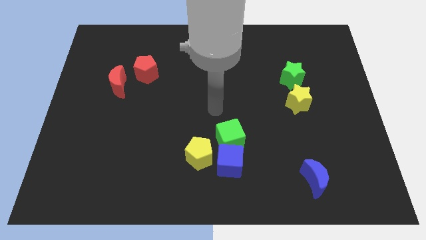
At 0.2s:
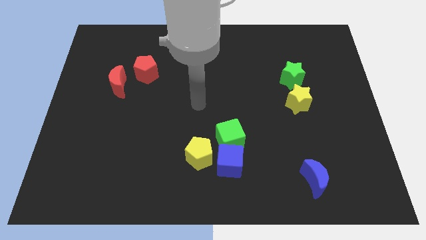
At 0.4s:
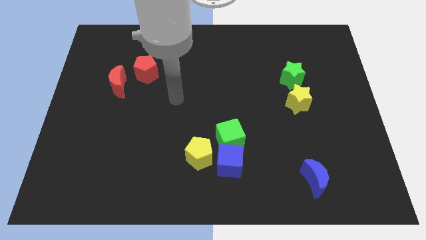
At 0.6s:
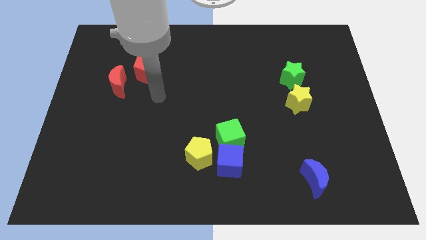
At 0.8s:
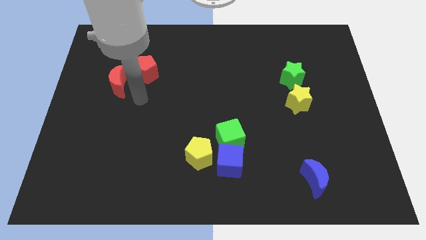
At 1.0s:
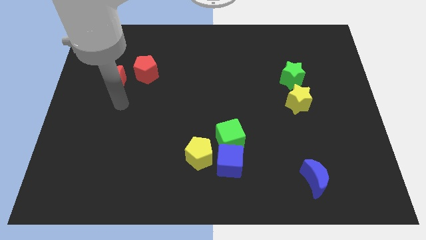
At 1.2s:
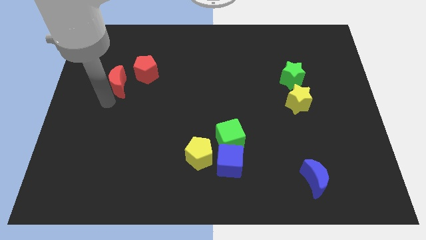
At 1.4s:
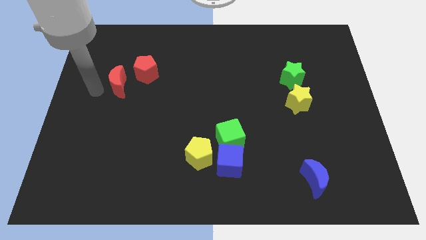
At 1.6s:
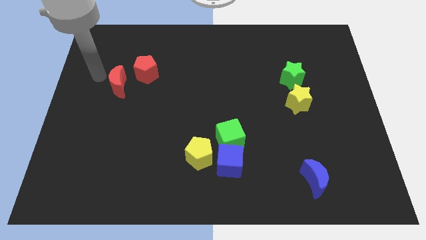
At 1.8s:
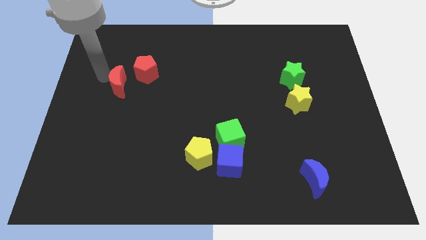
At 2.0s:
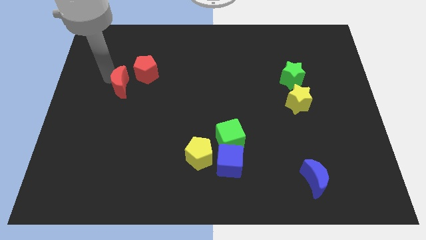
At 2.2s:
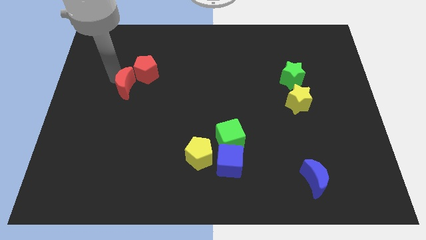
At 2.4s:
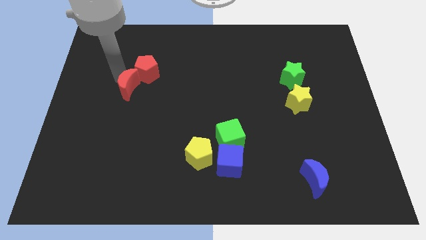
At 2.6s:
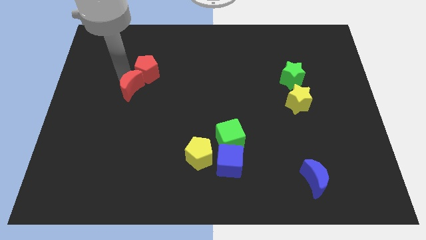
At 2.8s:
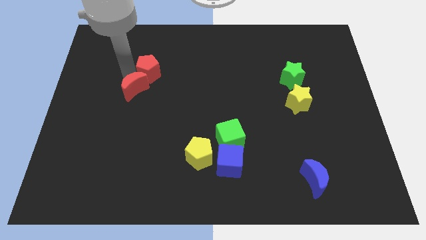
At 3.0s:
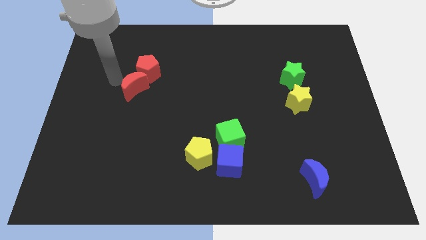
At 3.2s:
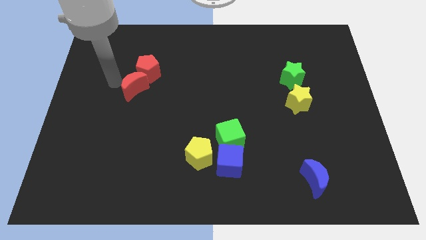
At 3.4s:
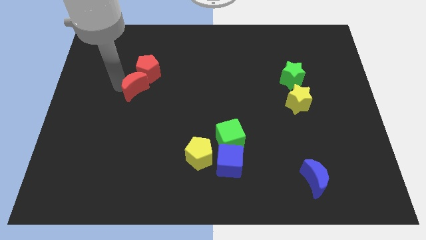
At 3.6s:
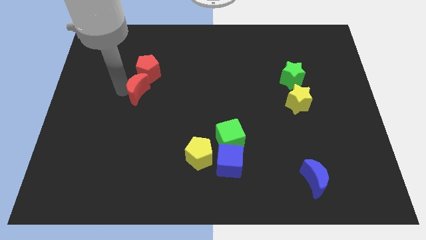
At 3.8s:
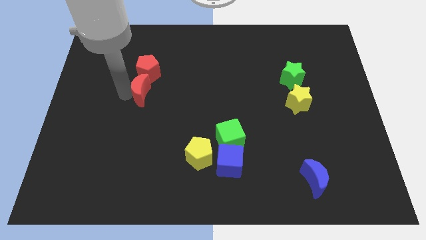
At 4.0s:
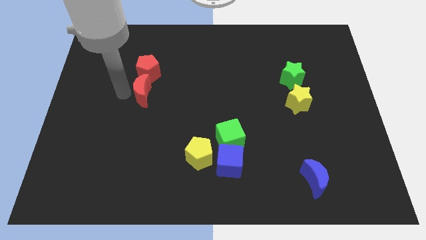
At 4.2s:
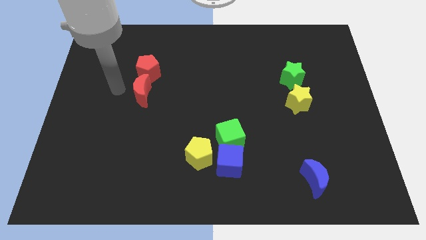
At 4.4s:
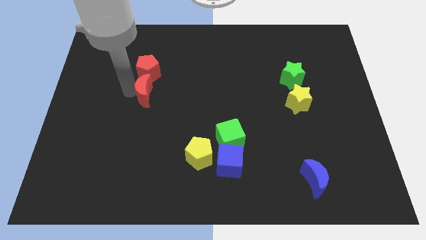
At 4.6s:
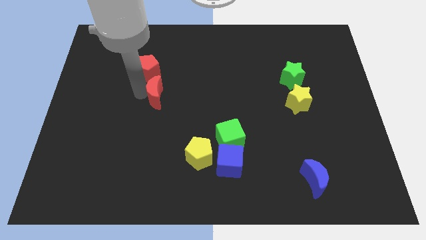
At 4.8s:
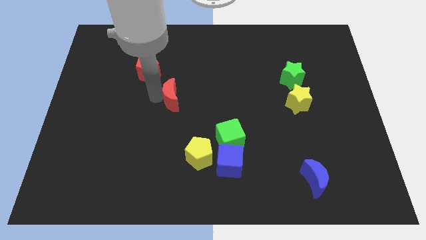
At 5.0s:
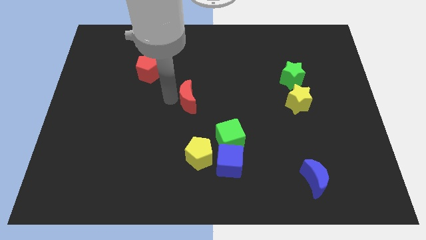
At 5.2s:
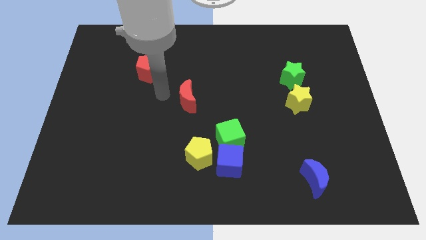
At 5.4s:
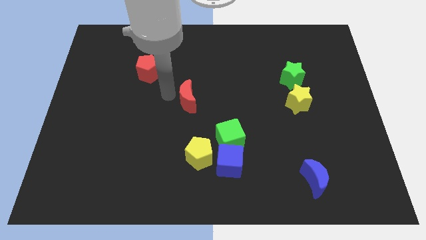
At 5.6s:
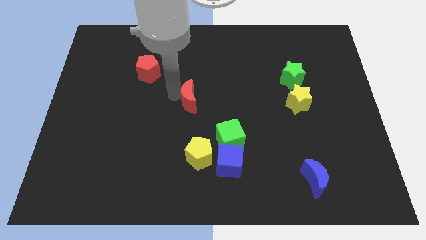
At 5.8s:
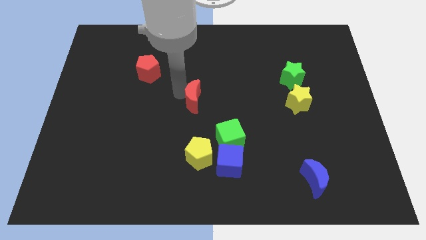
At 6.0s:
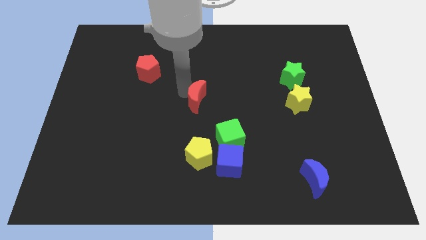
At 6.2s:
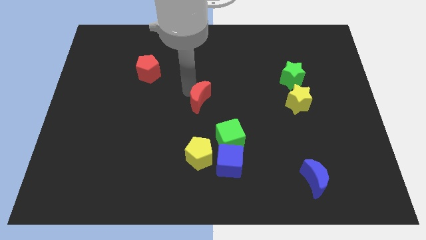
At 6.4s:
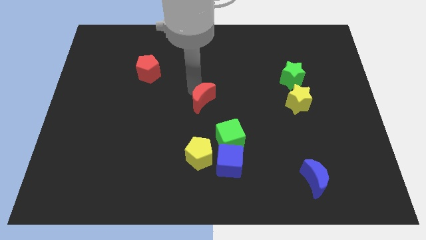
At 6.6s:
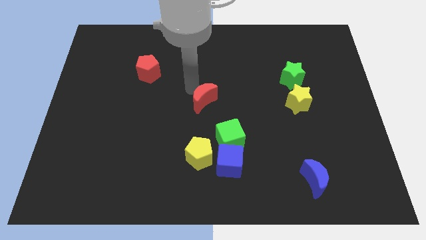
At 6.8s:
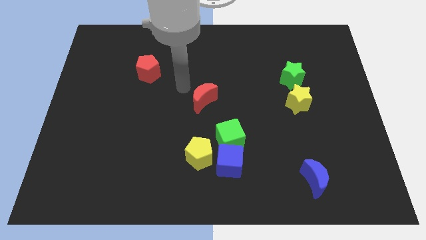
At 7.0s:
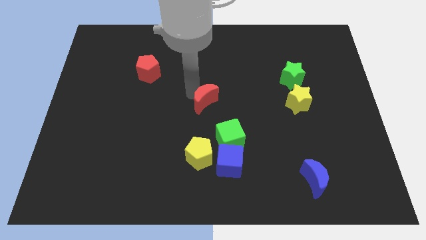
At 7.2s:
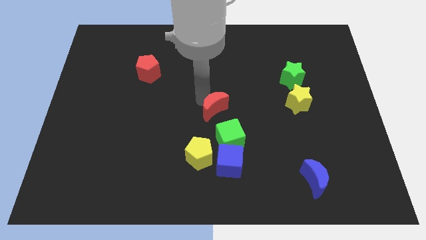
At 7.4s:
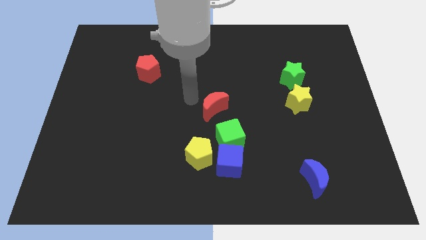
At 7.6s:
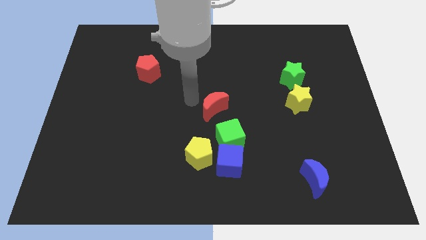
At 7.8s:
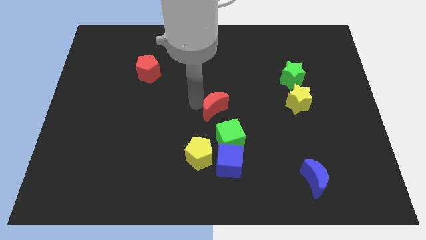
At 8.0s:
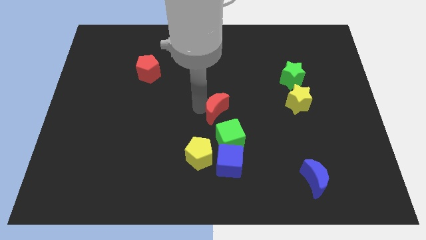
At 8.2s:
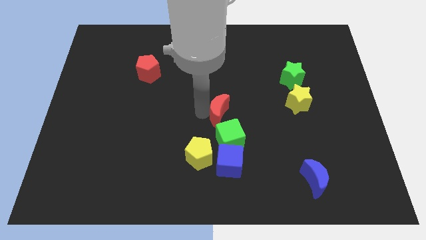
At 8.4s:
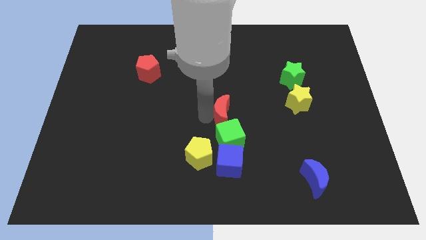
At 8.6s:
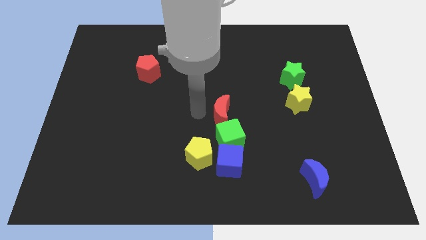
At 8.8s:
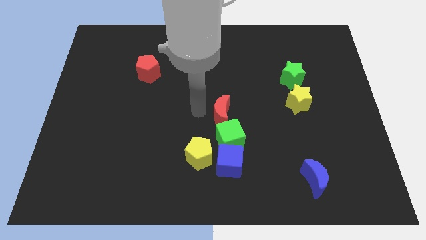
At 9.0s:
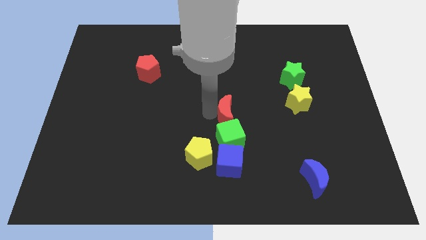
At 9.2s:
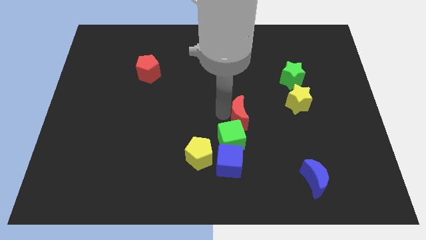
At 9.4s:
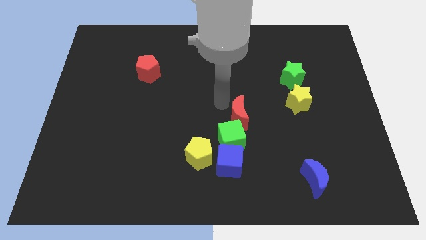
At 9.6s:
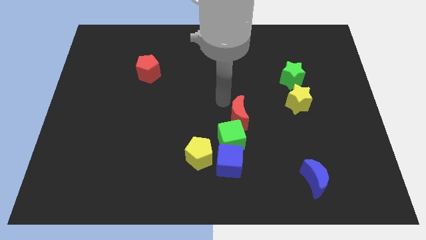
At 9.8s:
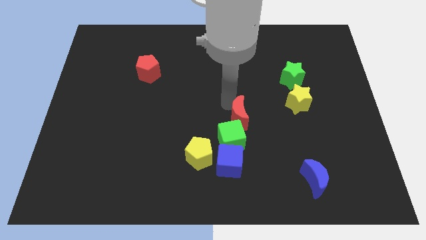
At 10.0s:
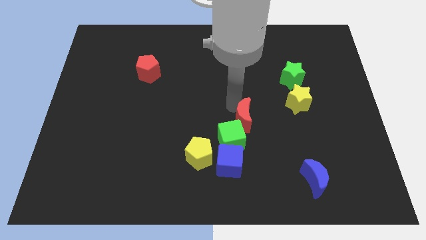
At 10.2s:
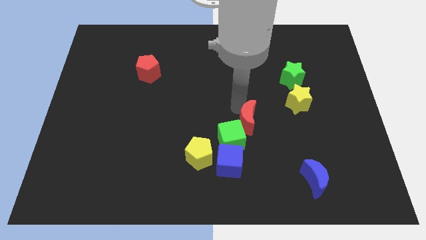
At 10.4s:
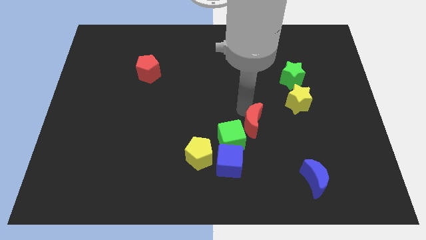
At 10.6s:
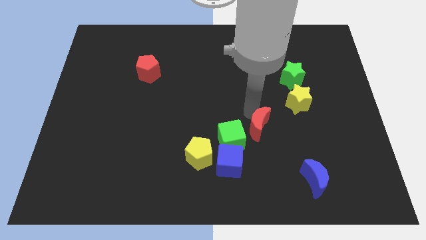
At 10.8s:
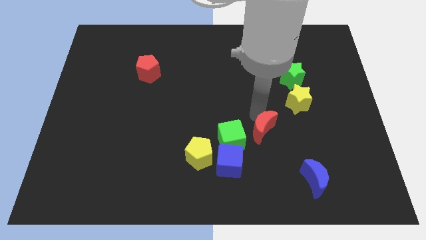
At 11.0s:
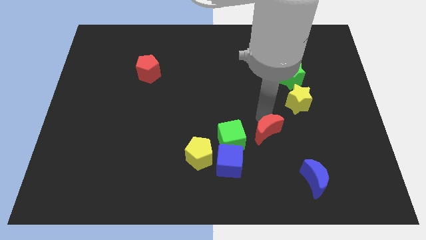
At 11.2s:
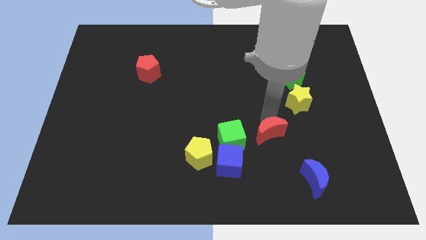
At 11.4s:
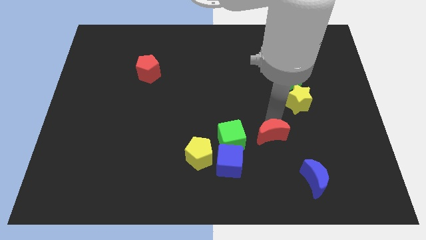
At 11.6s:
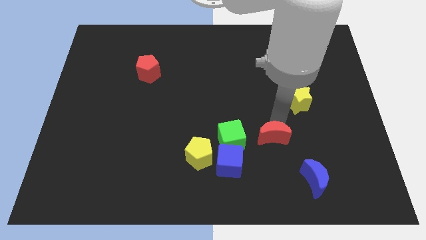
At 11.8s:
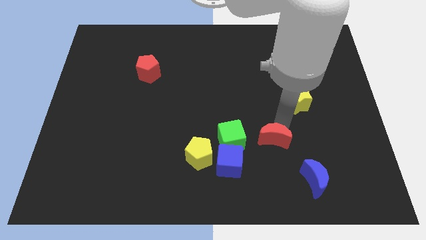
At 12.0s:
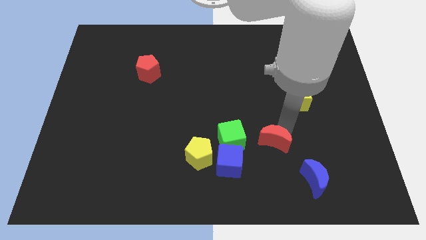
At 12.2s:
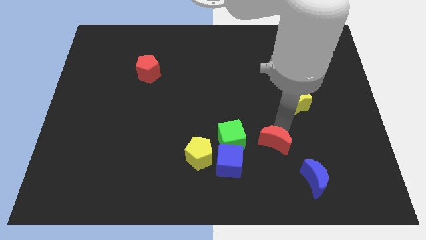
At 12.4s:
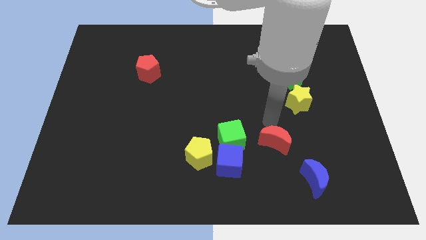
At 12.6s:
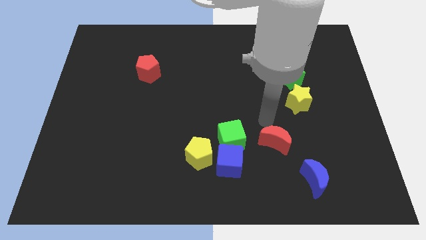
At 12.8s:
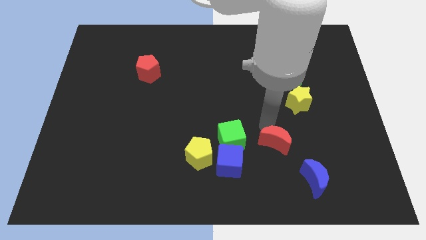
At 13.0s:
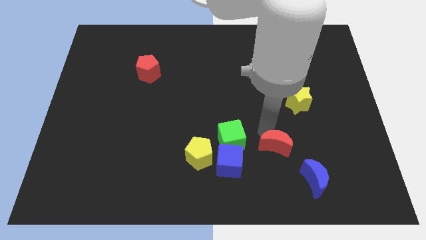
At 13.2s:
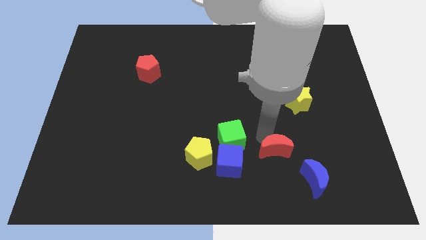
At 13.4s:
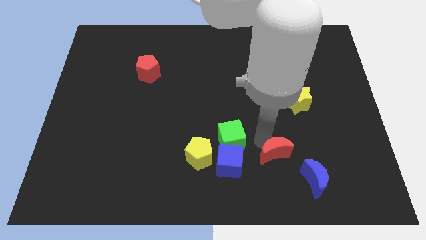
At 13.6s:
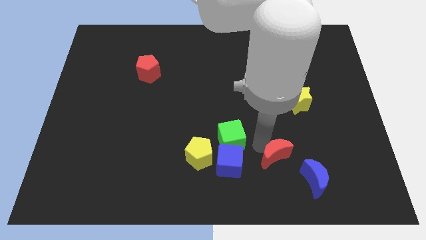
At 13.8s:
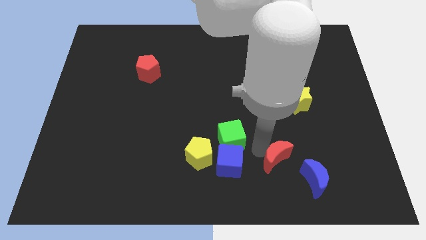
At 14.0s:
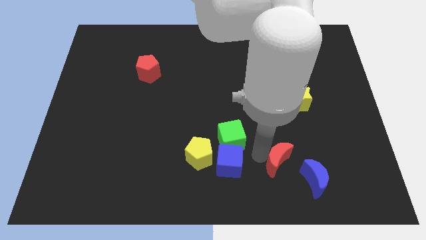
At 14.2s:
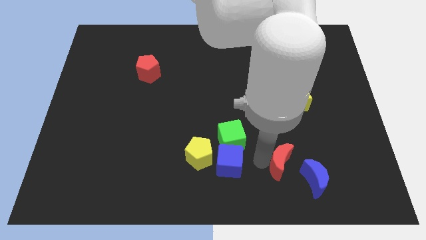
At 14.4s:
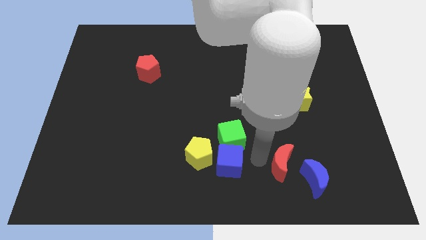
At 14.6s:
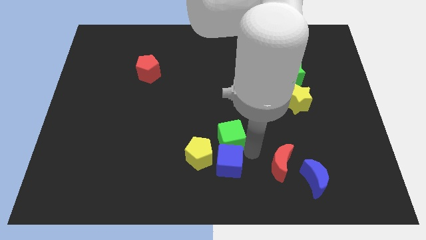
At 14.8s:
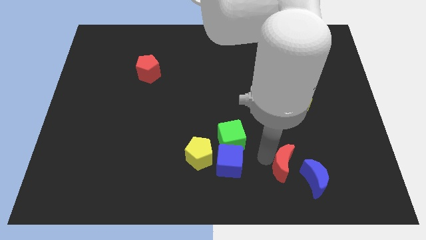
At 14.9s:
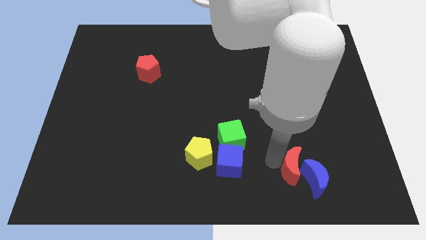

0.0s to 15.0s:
move the red moon towards the blue moon
